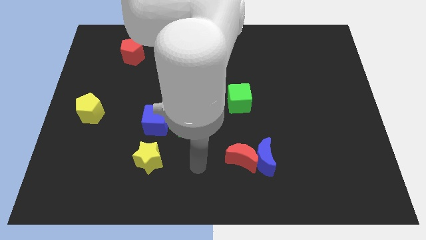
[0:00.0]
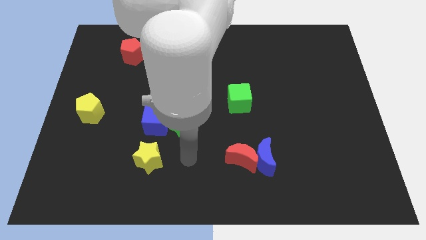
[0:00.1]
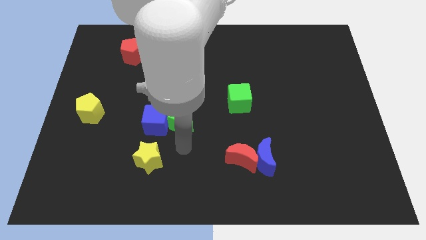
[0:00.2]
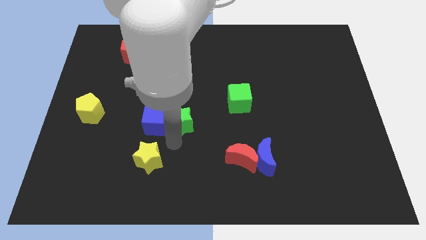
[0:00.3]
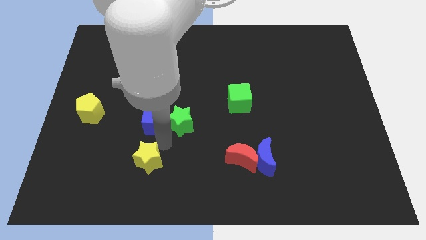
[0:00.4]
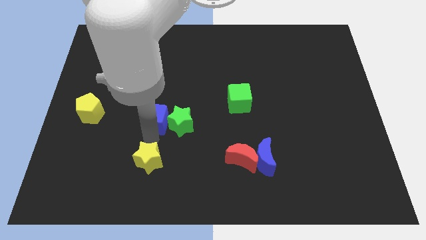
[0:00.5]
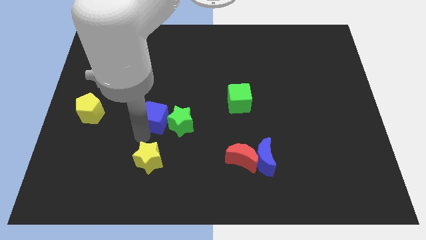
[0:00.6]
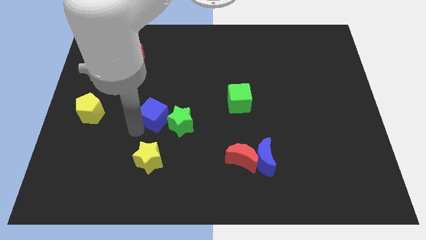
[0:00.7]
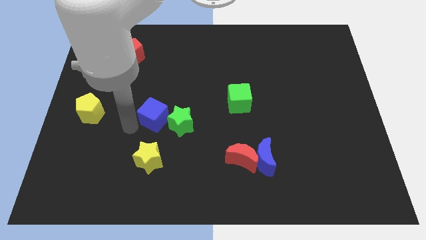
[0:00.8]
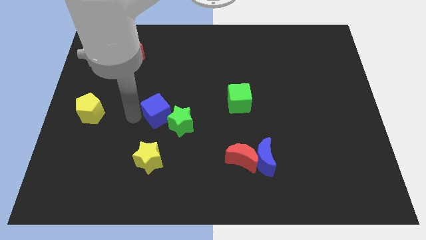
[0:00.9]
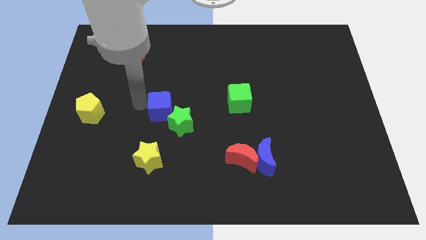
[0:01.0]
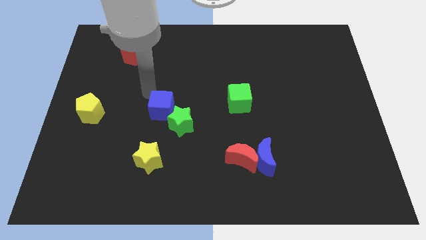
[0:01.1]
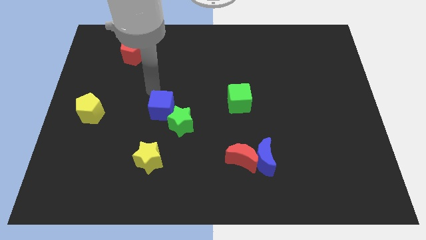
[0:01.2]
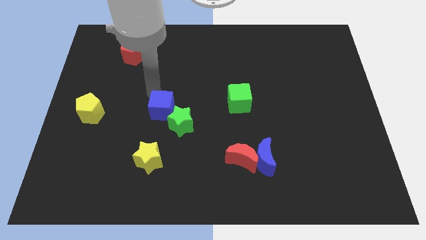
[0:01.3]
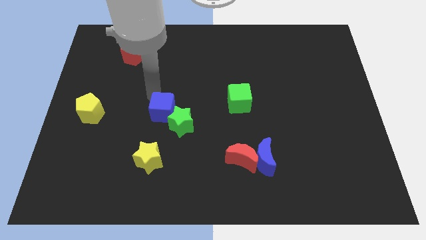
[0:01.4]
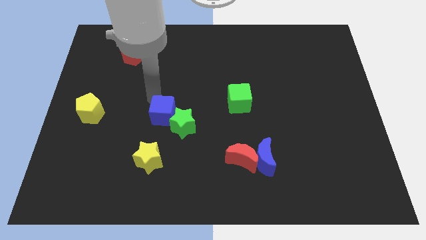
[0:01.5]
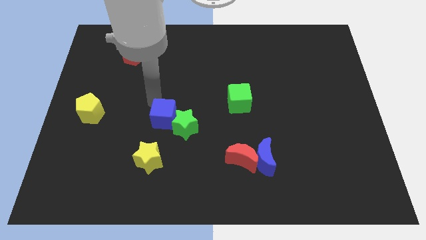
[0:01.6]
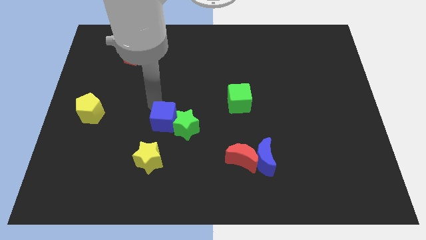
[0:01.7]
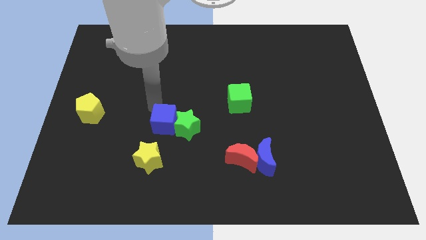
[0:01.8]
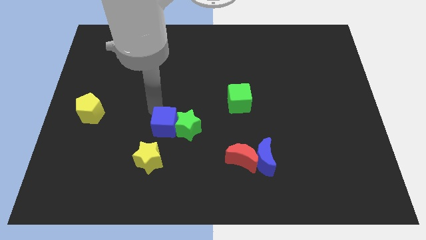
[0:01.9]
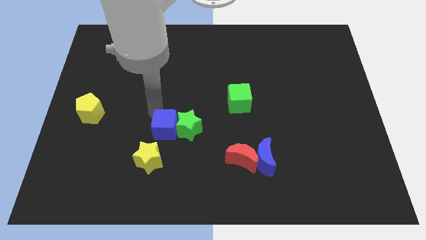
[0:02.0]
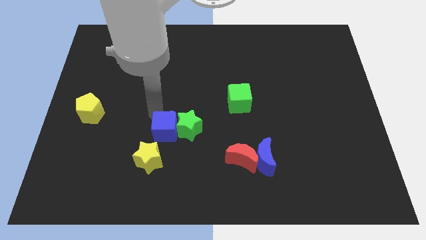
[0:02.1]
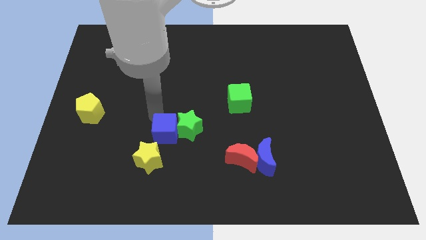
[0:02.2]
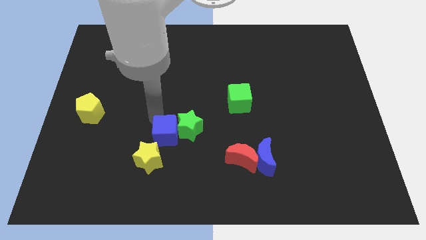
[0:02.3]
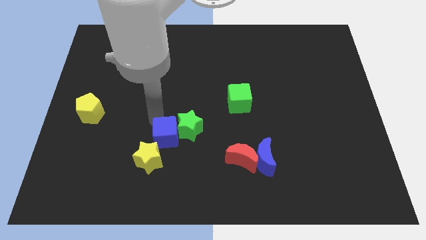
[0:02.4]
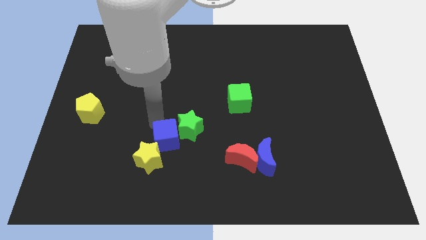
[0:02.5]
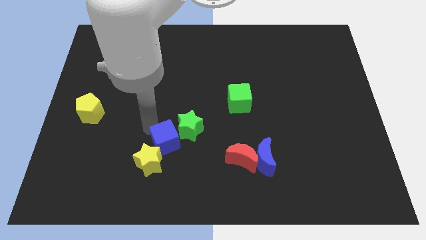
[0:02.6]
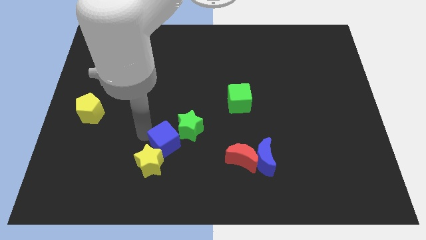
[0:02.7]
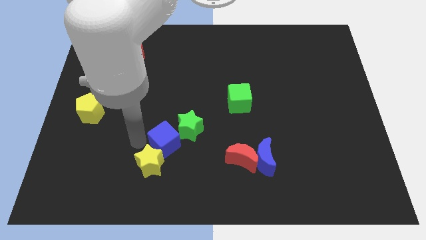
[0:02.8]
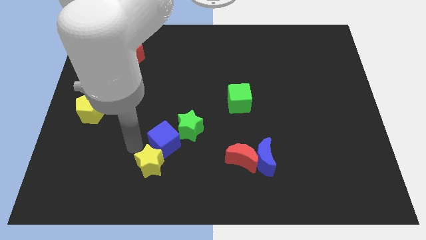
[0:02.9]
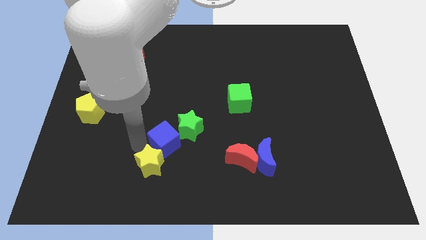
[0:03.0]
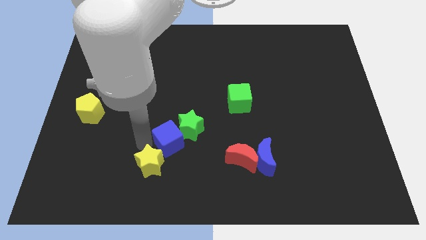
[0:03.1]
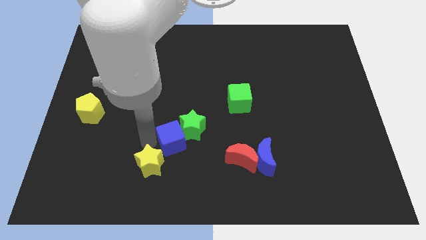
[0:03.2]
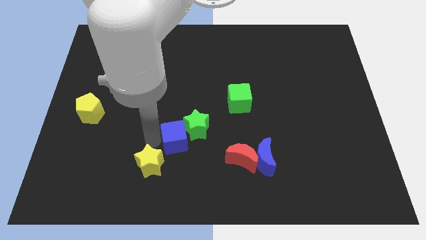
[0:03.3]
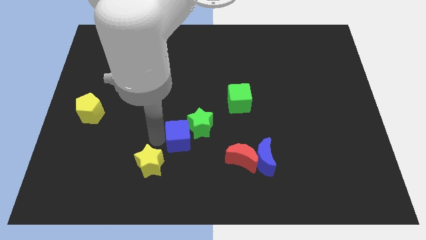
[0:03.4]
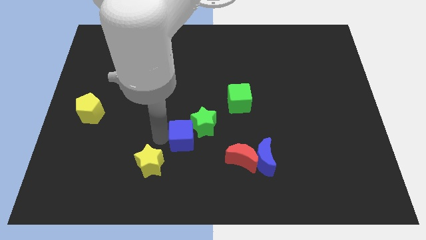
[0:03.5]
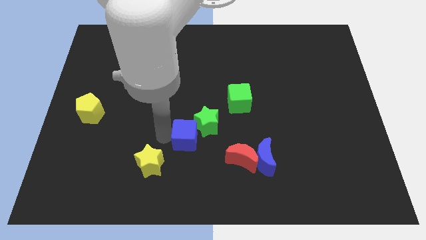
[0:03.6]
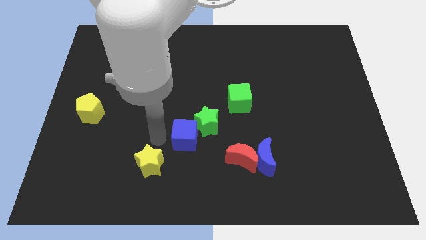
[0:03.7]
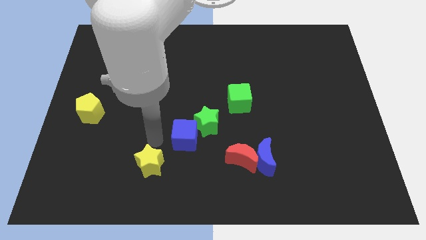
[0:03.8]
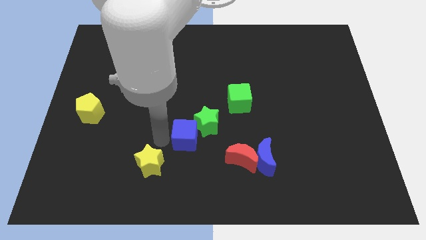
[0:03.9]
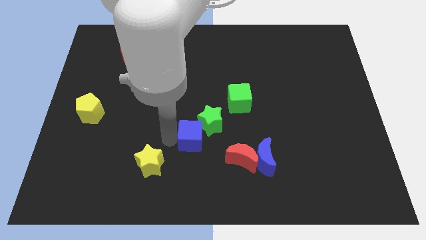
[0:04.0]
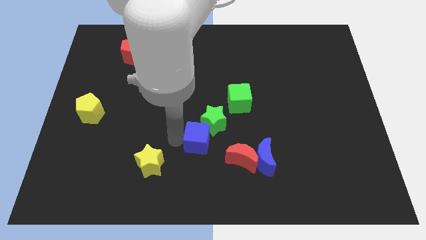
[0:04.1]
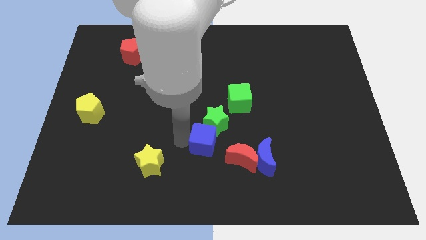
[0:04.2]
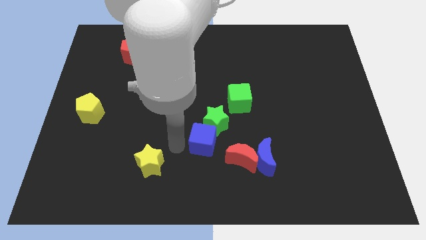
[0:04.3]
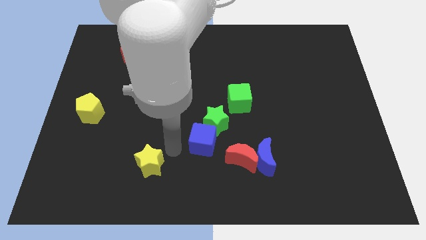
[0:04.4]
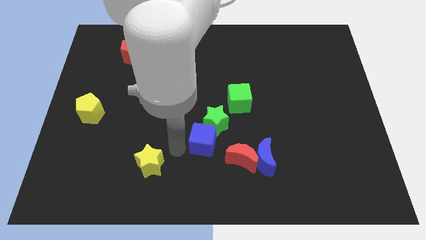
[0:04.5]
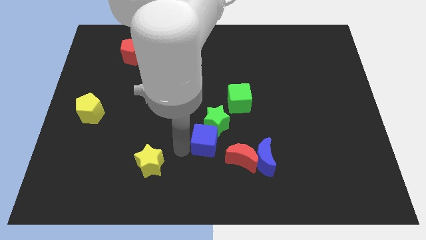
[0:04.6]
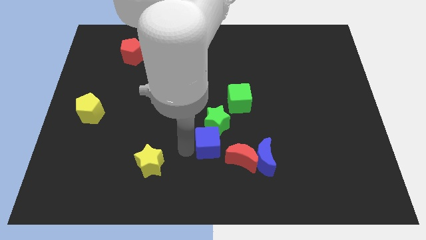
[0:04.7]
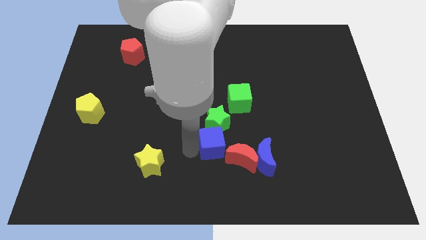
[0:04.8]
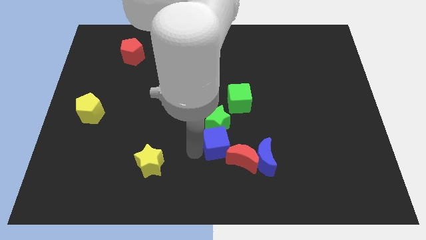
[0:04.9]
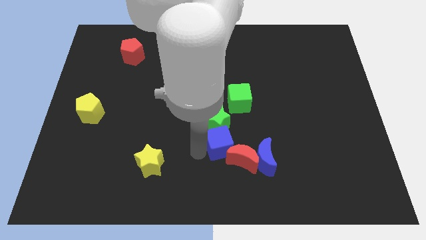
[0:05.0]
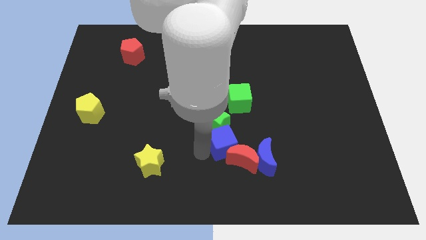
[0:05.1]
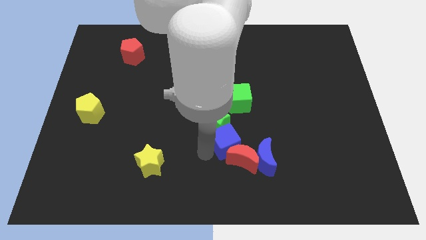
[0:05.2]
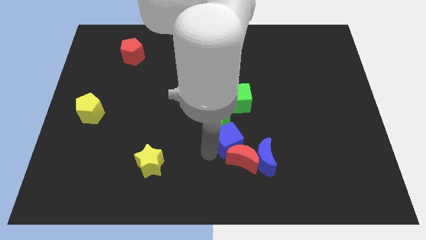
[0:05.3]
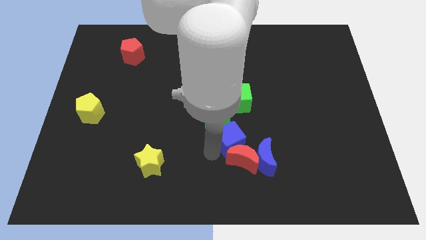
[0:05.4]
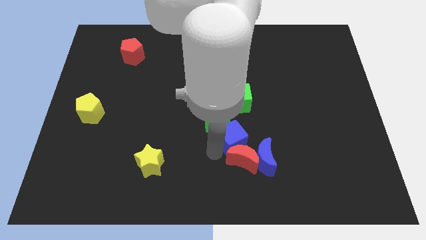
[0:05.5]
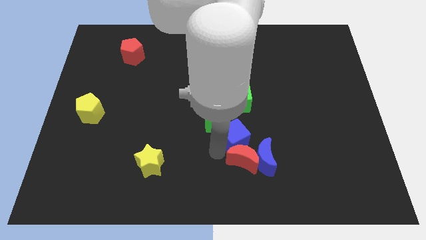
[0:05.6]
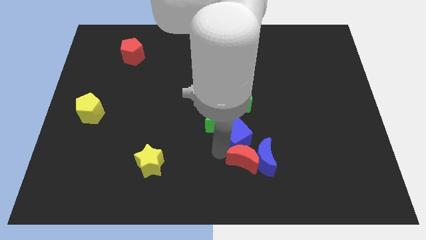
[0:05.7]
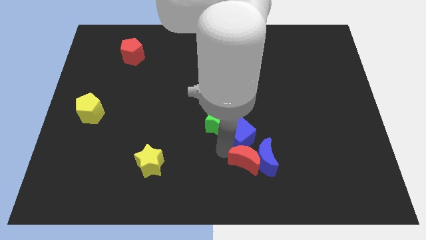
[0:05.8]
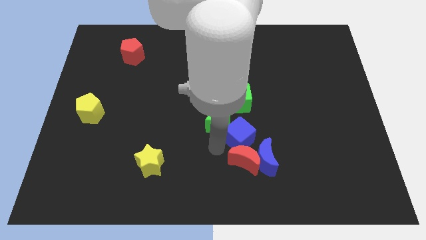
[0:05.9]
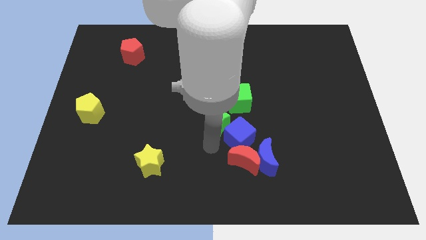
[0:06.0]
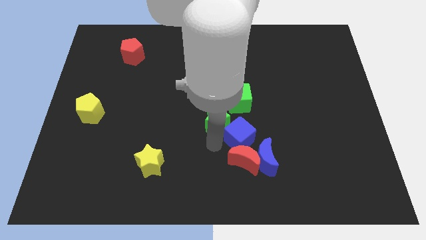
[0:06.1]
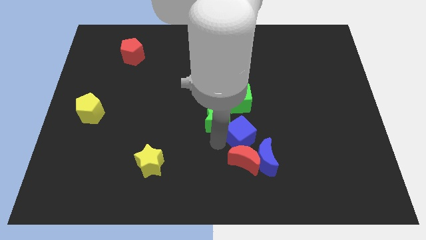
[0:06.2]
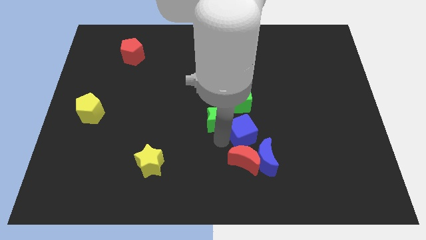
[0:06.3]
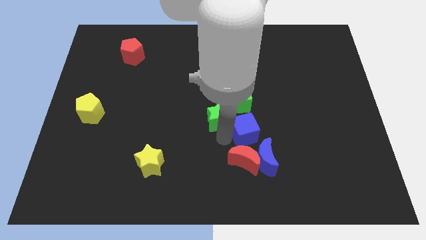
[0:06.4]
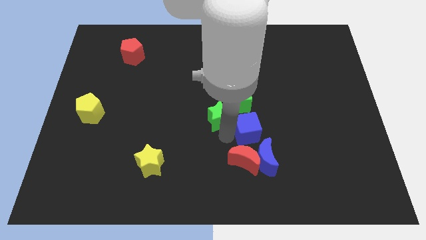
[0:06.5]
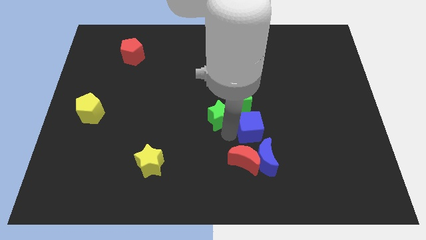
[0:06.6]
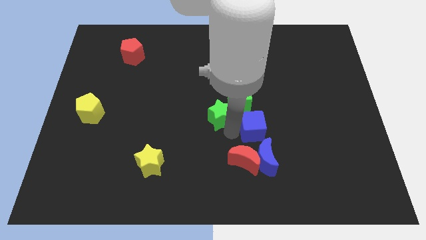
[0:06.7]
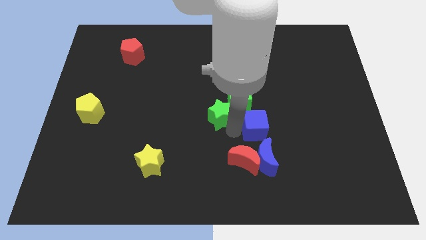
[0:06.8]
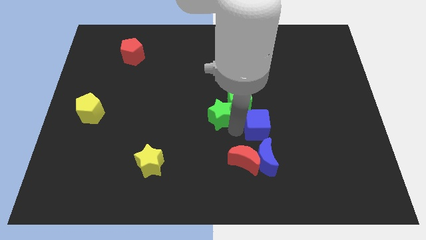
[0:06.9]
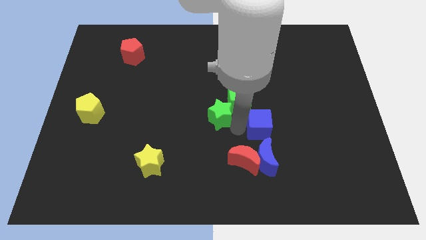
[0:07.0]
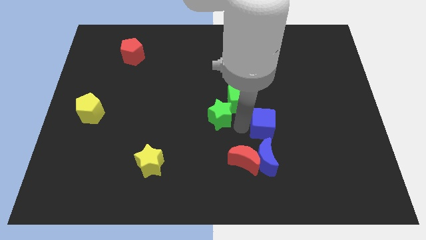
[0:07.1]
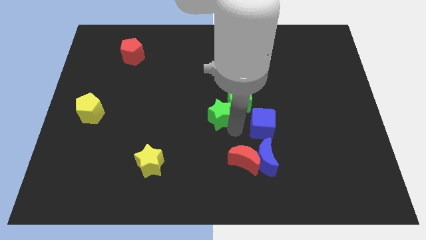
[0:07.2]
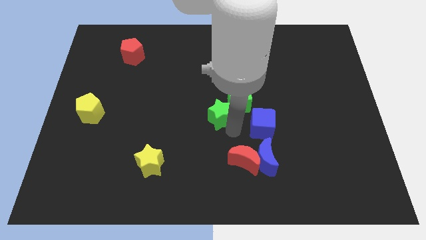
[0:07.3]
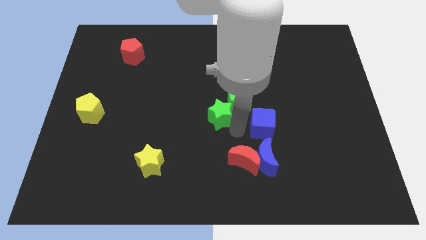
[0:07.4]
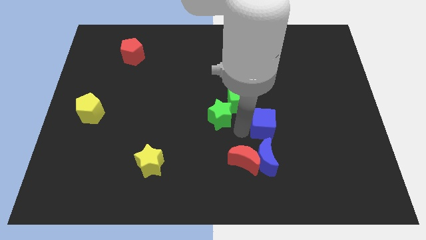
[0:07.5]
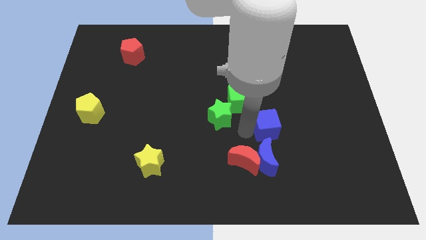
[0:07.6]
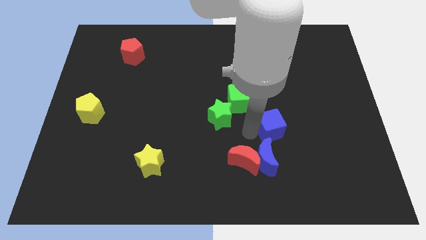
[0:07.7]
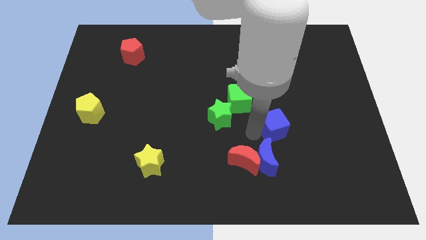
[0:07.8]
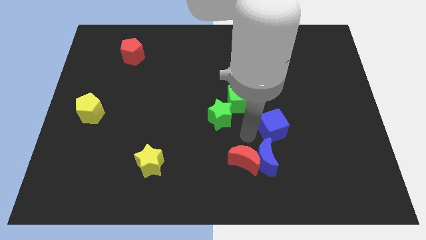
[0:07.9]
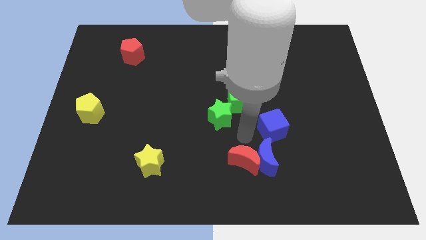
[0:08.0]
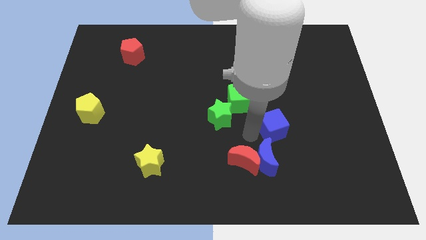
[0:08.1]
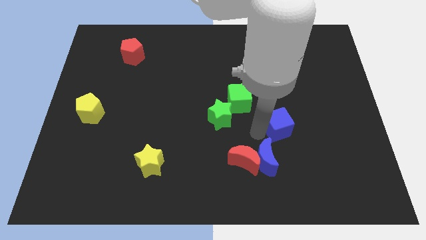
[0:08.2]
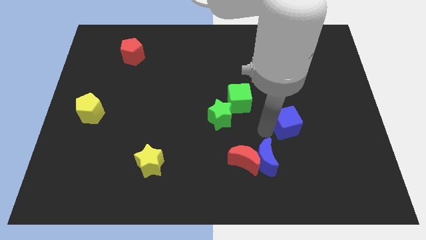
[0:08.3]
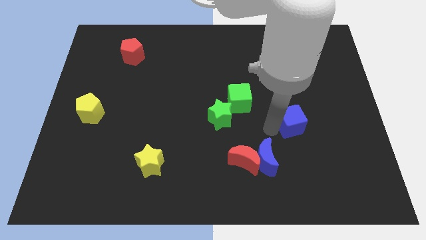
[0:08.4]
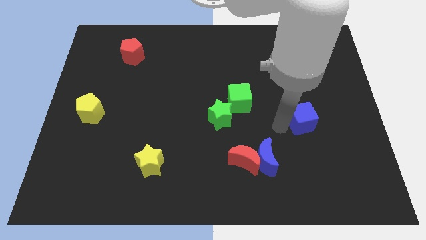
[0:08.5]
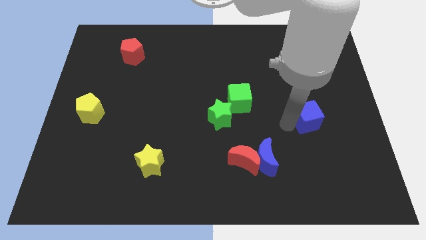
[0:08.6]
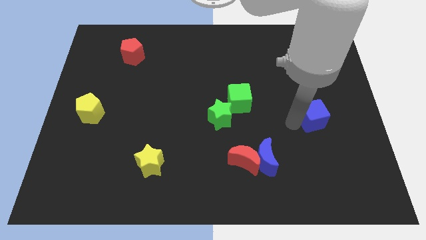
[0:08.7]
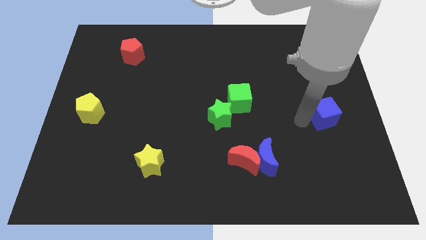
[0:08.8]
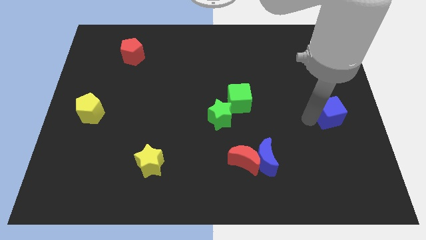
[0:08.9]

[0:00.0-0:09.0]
push the blue cube to the right side of the board
